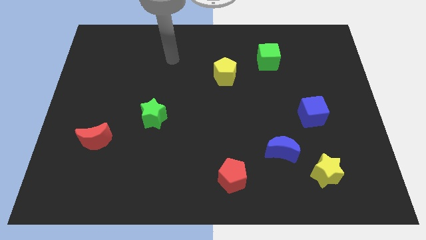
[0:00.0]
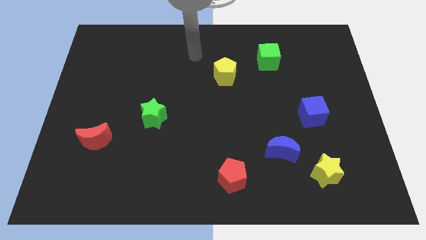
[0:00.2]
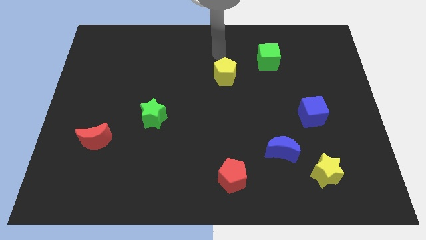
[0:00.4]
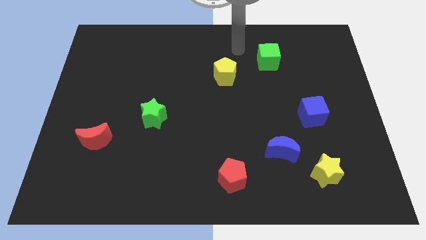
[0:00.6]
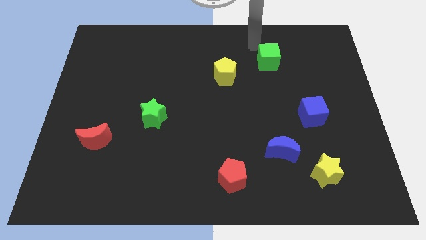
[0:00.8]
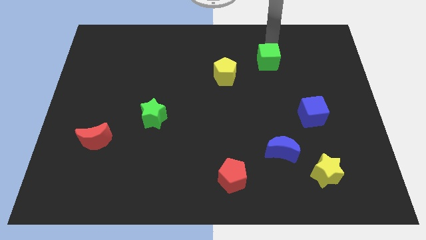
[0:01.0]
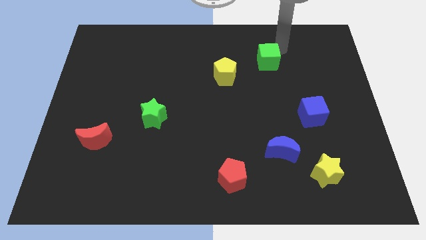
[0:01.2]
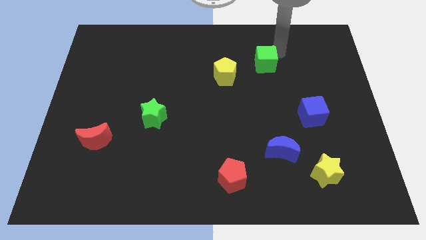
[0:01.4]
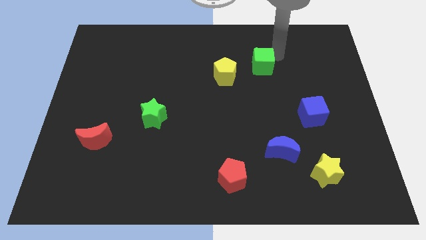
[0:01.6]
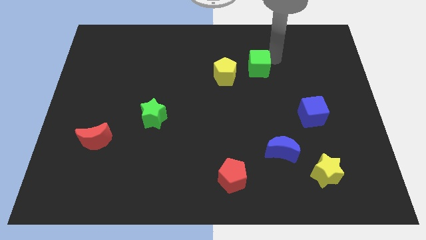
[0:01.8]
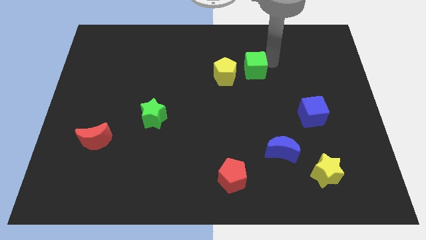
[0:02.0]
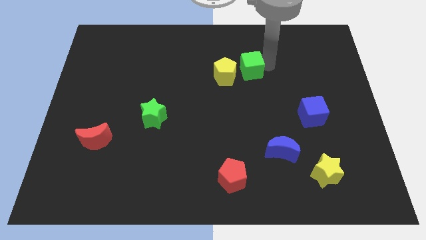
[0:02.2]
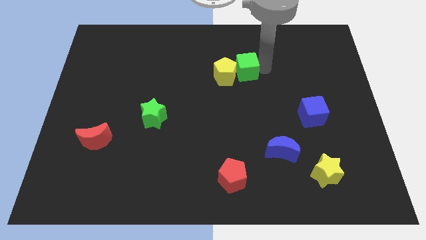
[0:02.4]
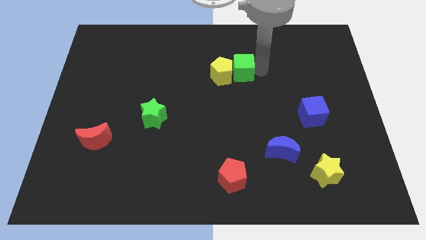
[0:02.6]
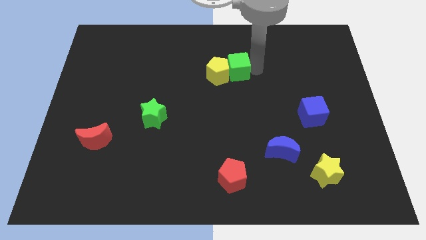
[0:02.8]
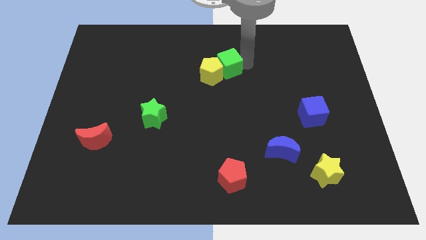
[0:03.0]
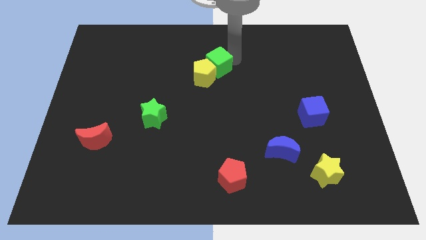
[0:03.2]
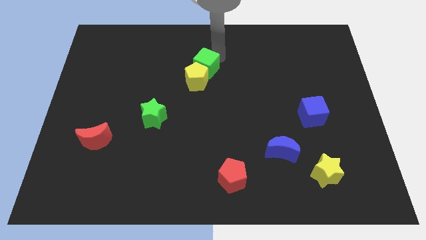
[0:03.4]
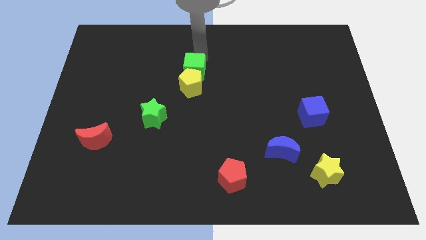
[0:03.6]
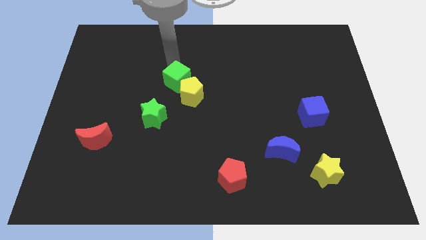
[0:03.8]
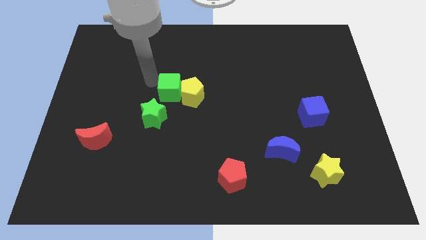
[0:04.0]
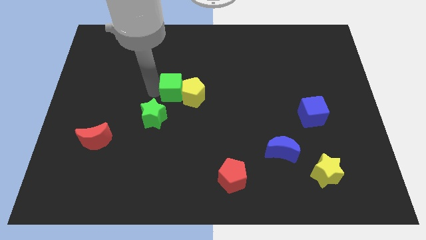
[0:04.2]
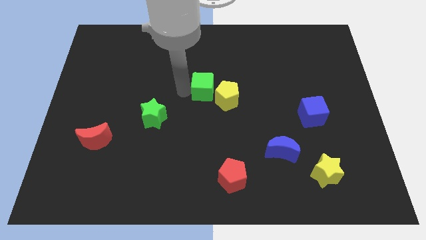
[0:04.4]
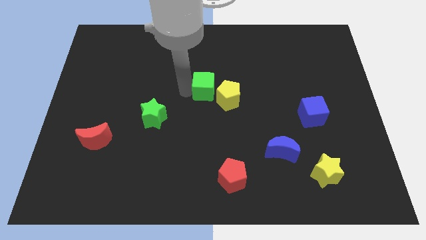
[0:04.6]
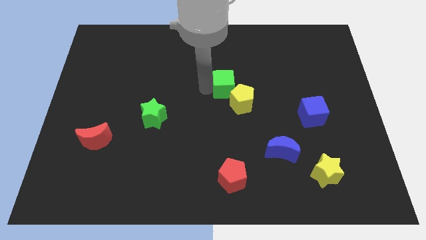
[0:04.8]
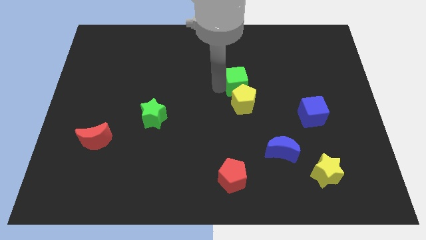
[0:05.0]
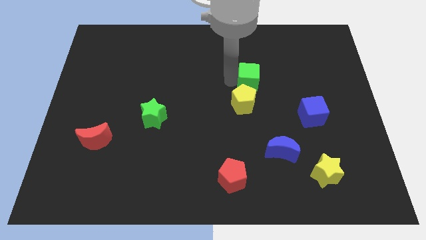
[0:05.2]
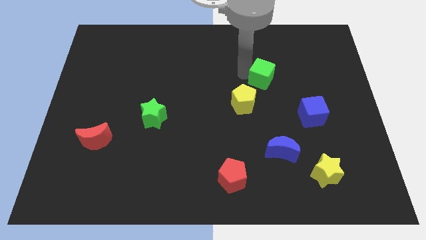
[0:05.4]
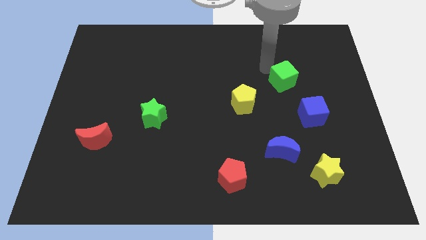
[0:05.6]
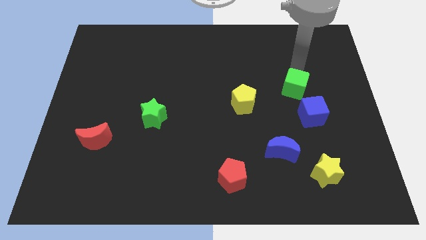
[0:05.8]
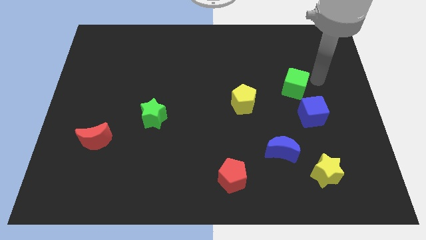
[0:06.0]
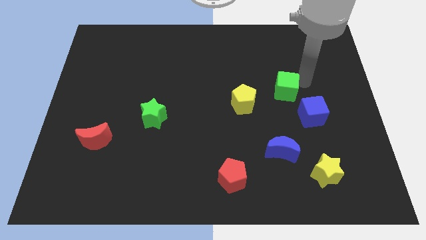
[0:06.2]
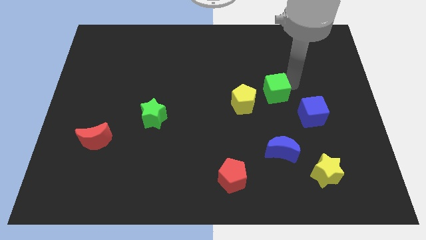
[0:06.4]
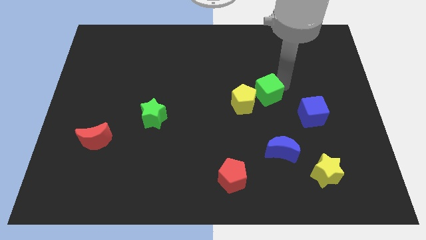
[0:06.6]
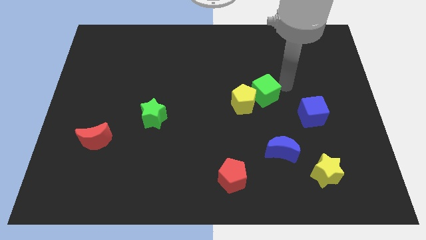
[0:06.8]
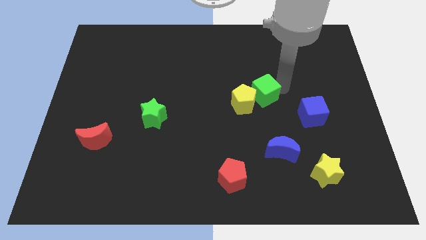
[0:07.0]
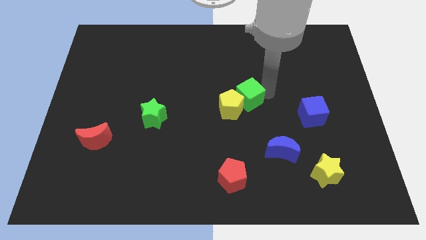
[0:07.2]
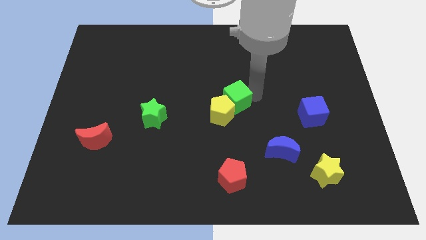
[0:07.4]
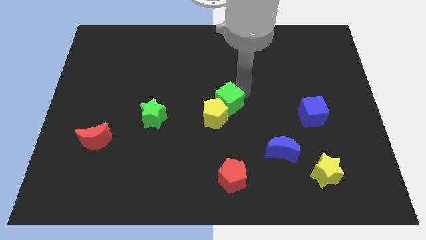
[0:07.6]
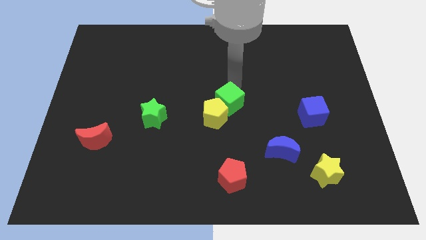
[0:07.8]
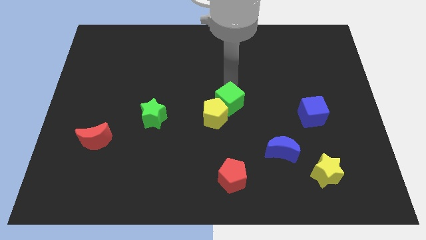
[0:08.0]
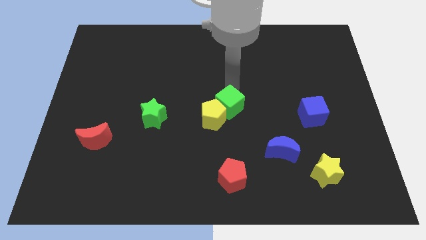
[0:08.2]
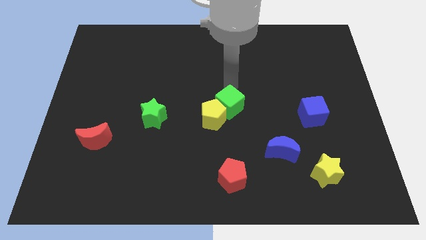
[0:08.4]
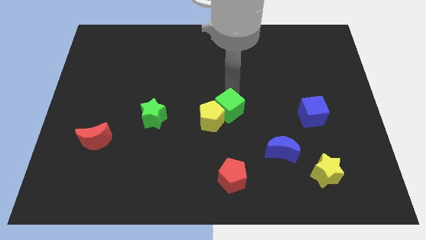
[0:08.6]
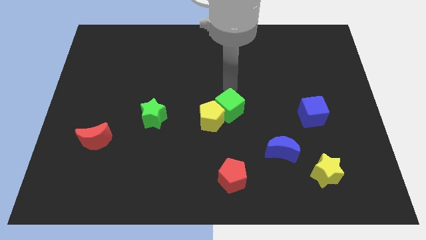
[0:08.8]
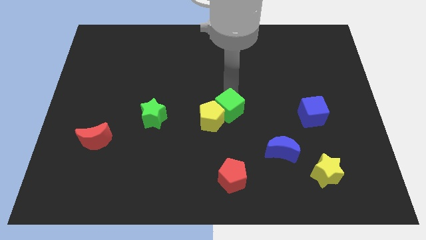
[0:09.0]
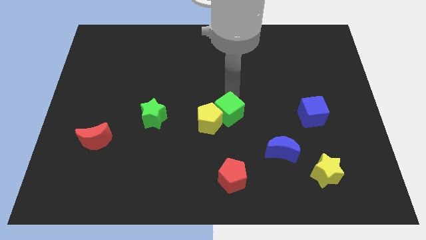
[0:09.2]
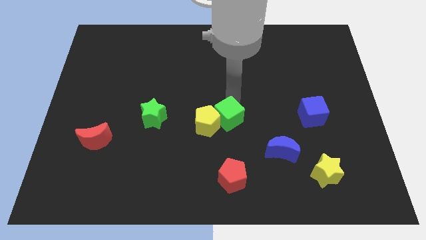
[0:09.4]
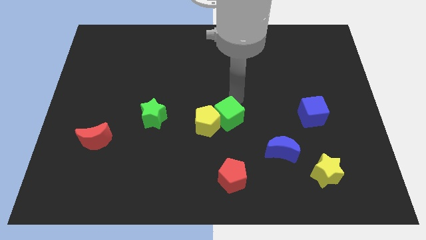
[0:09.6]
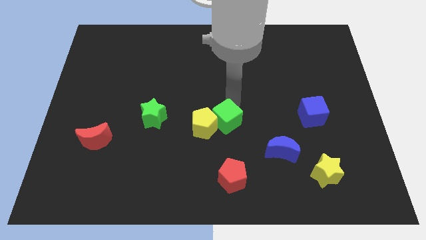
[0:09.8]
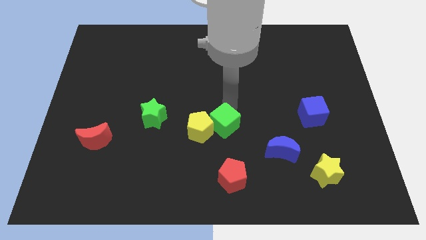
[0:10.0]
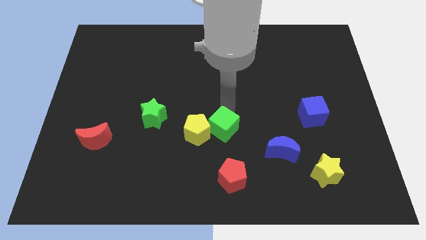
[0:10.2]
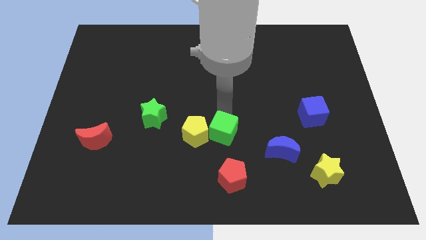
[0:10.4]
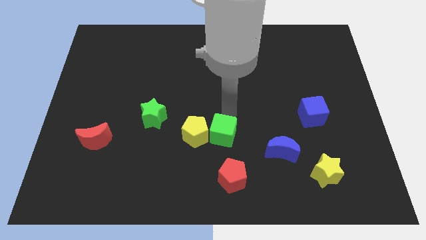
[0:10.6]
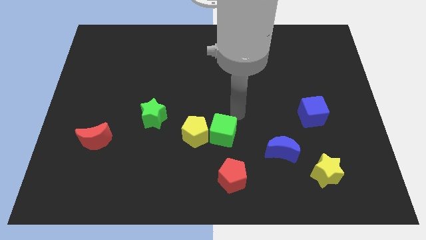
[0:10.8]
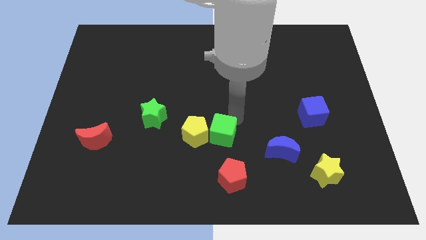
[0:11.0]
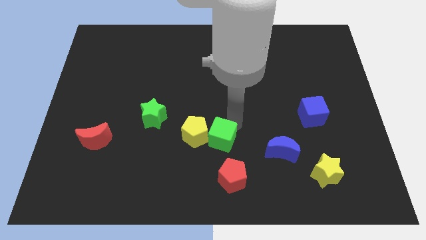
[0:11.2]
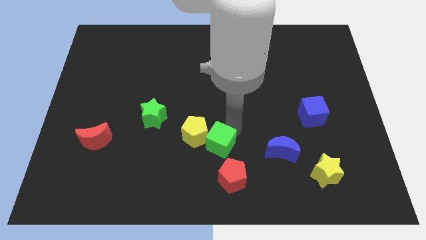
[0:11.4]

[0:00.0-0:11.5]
put the green cube to the top left of the red pentagon

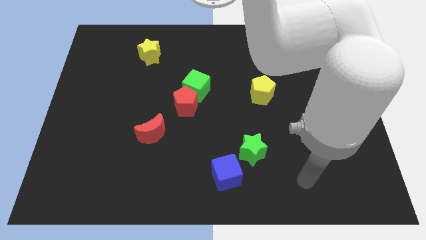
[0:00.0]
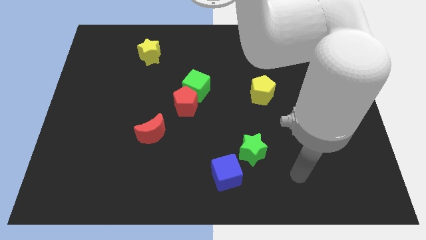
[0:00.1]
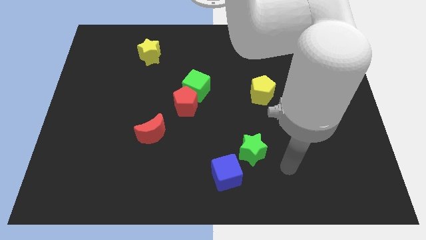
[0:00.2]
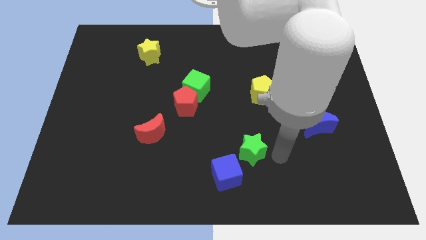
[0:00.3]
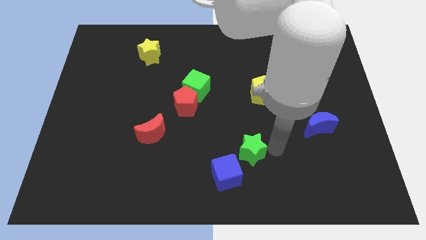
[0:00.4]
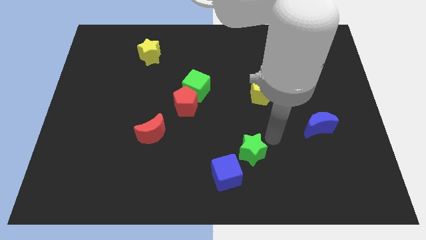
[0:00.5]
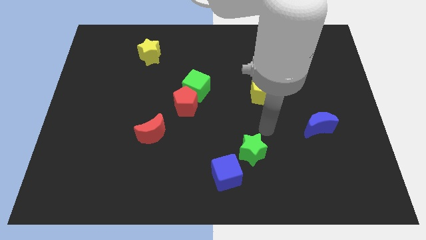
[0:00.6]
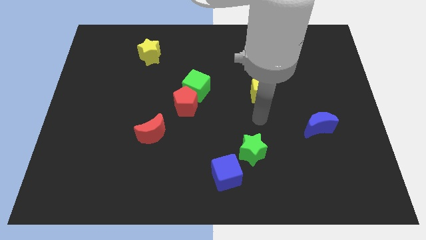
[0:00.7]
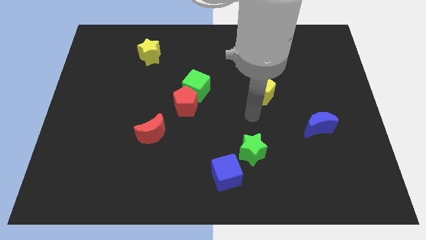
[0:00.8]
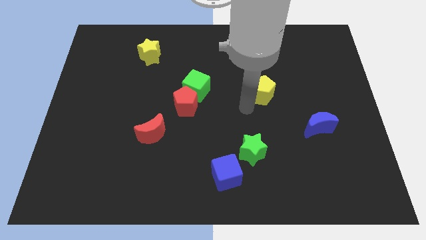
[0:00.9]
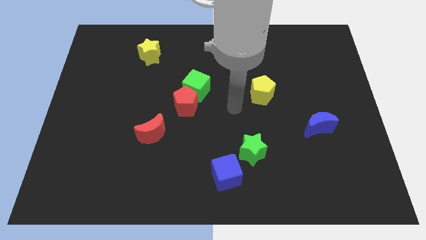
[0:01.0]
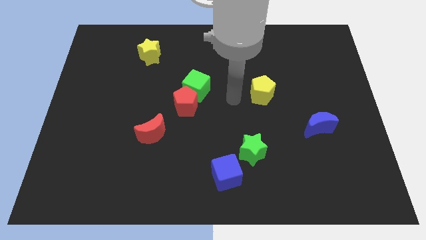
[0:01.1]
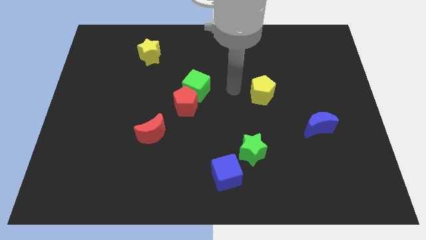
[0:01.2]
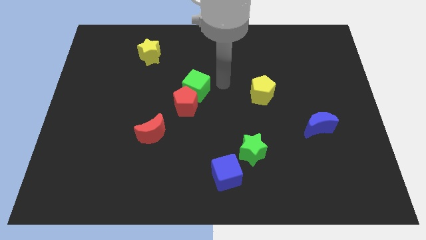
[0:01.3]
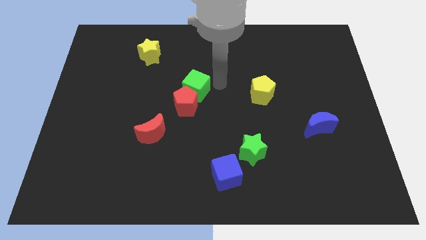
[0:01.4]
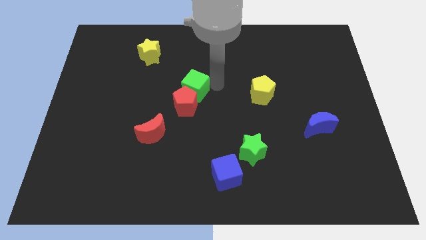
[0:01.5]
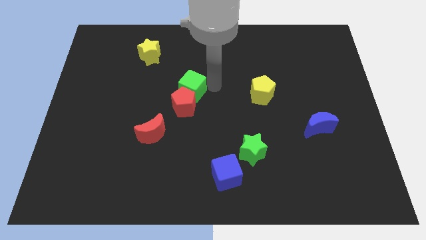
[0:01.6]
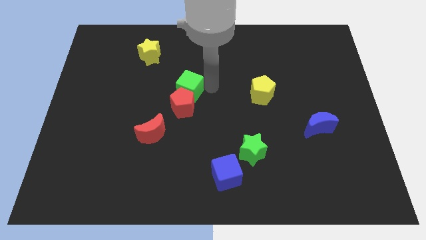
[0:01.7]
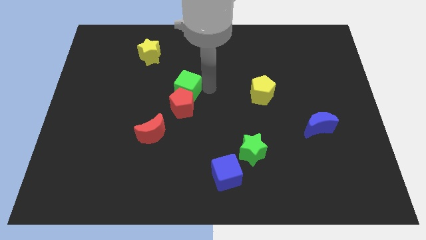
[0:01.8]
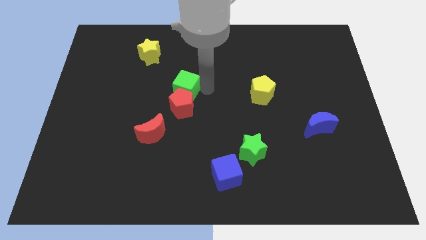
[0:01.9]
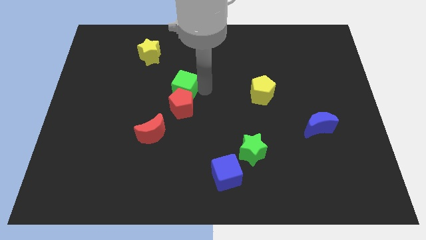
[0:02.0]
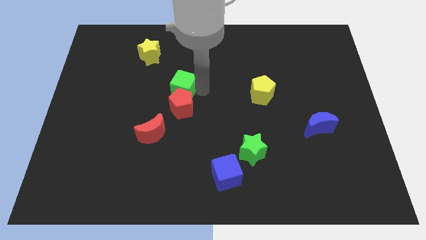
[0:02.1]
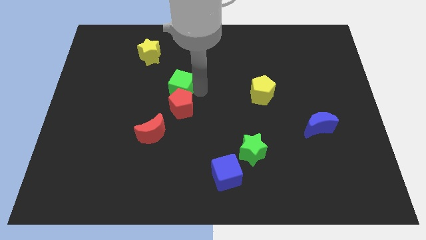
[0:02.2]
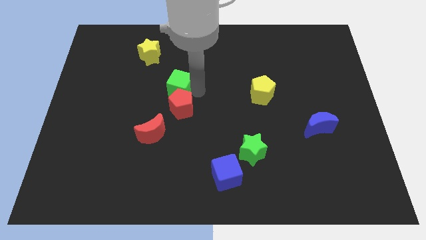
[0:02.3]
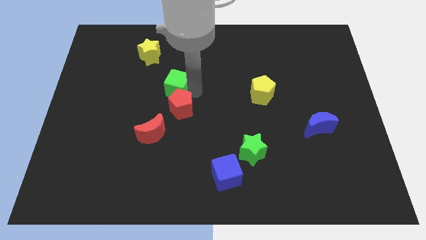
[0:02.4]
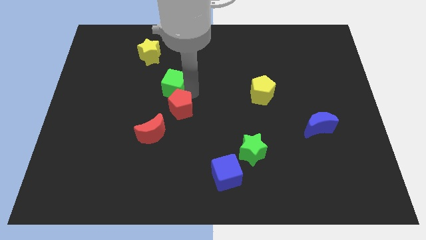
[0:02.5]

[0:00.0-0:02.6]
push the green cube to the top of the red moon
